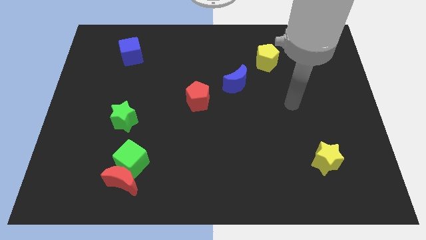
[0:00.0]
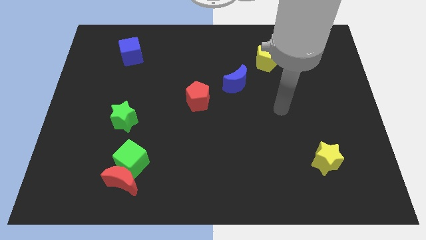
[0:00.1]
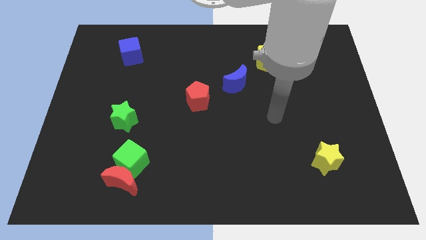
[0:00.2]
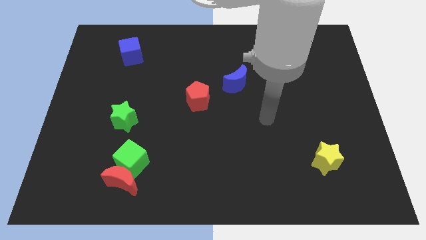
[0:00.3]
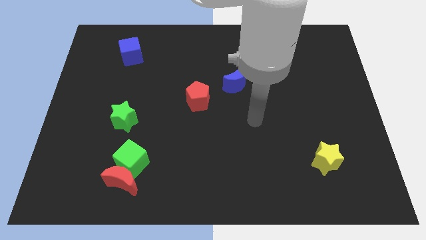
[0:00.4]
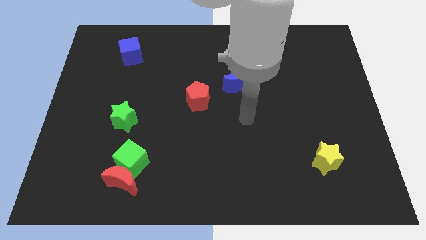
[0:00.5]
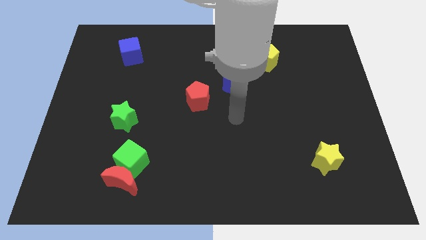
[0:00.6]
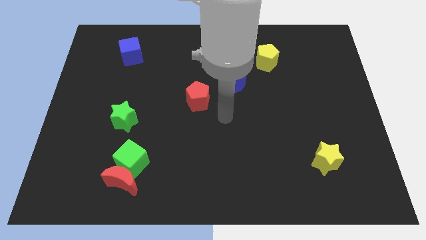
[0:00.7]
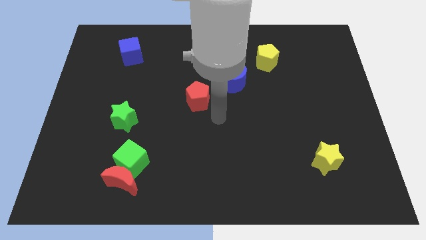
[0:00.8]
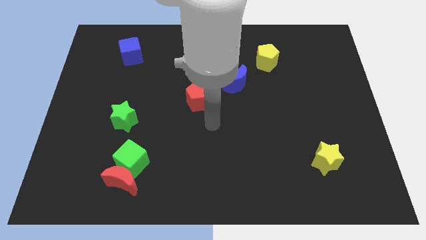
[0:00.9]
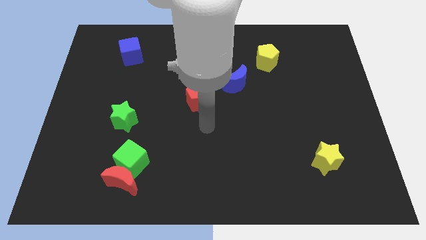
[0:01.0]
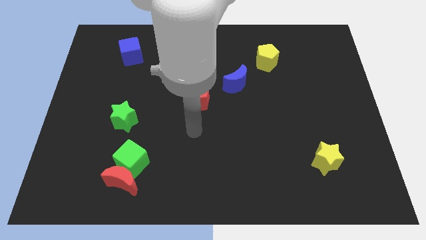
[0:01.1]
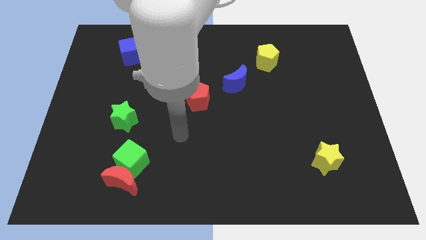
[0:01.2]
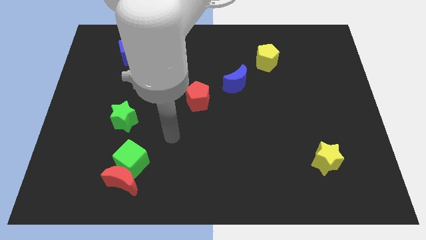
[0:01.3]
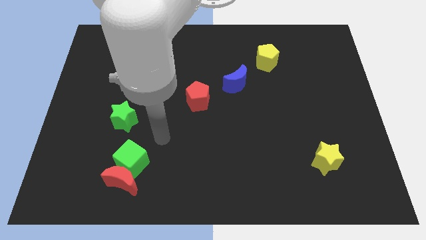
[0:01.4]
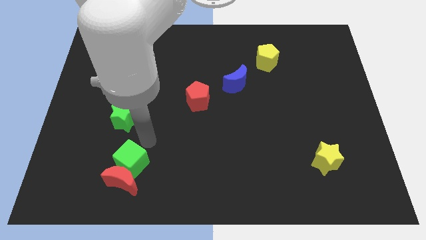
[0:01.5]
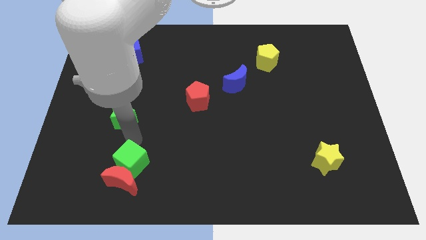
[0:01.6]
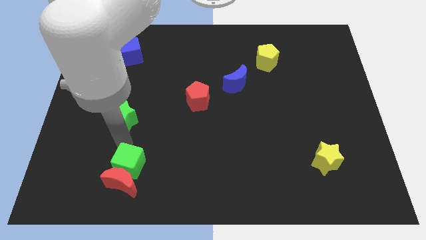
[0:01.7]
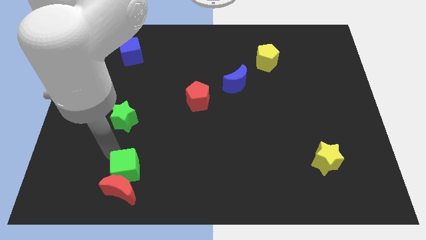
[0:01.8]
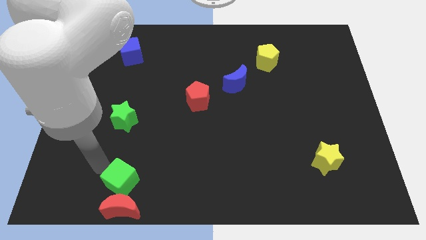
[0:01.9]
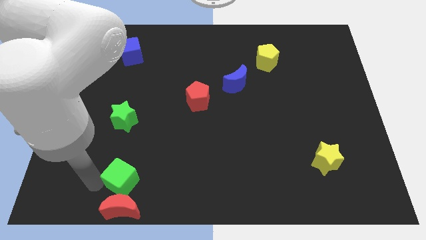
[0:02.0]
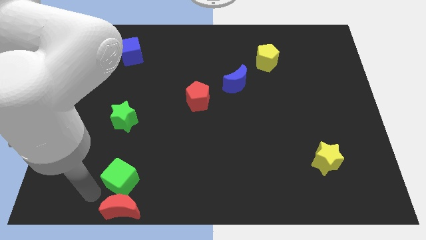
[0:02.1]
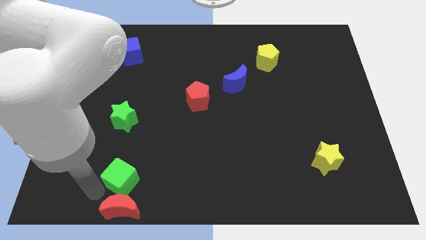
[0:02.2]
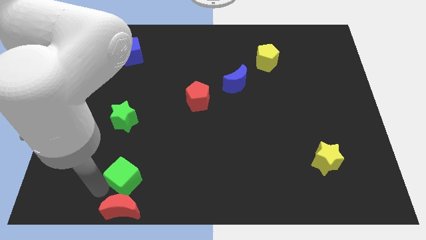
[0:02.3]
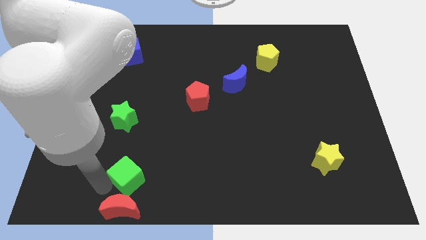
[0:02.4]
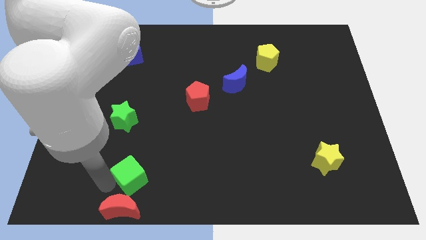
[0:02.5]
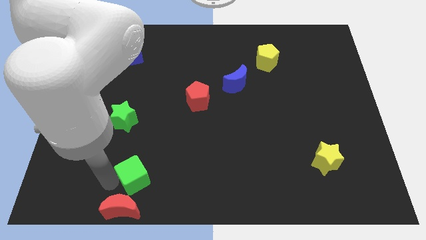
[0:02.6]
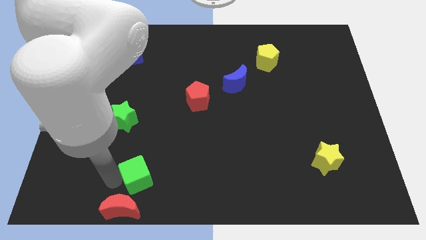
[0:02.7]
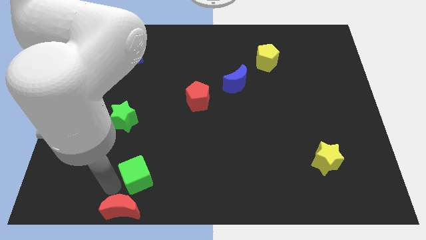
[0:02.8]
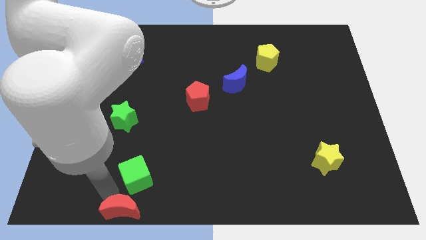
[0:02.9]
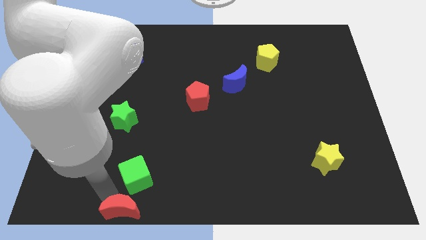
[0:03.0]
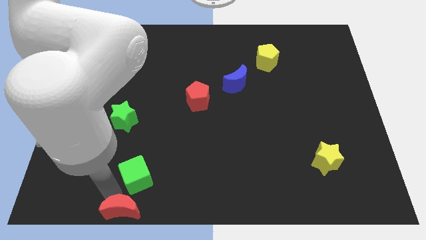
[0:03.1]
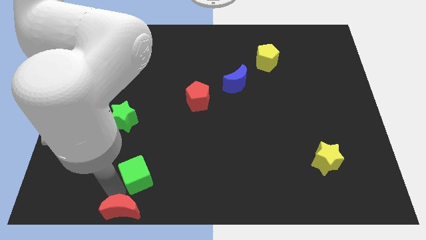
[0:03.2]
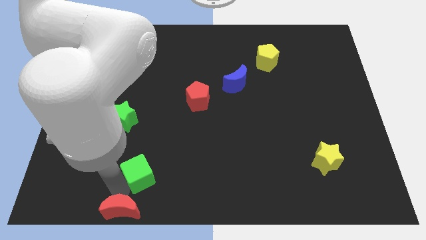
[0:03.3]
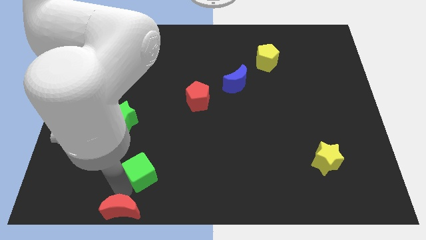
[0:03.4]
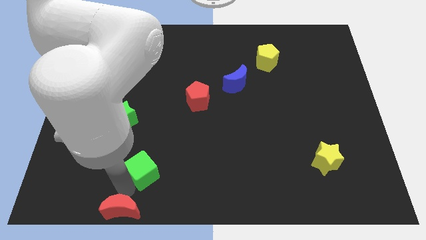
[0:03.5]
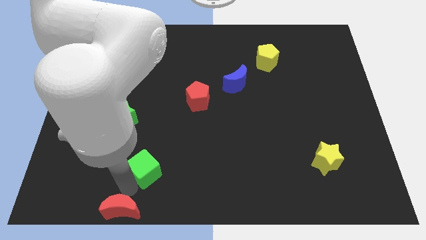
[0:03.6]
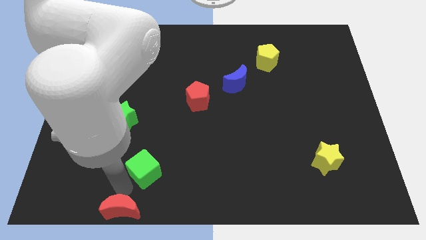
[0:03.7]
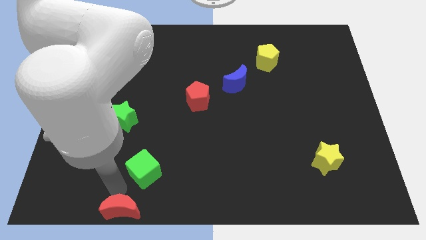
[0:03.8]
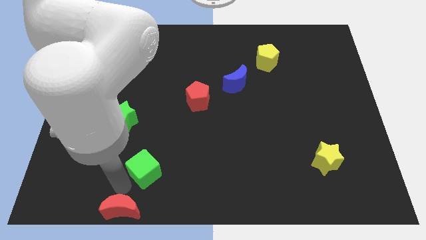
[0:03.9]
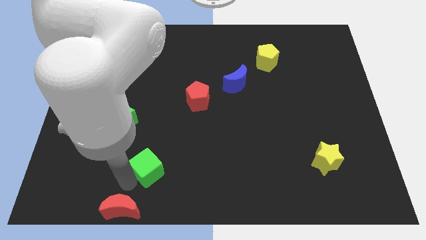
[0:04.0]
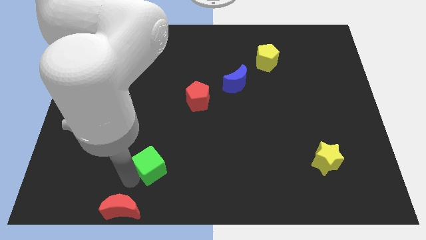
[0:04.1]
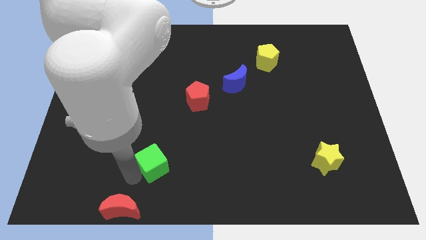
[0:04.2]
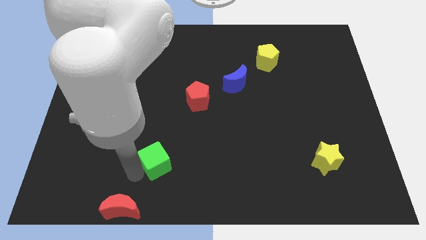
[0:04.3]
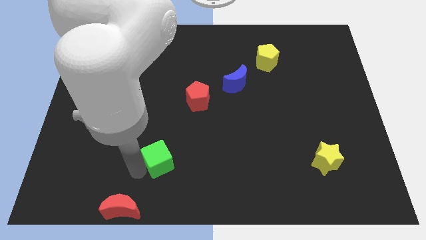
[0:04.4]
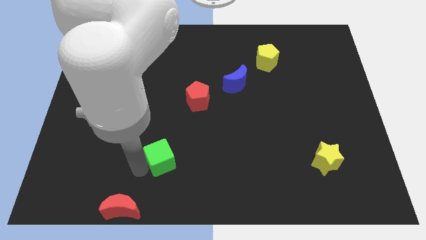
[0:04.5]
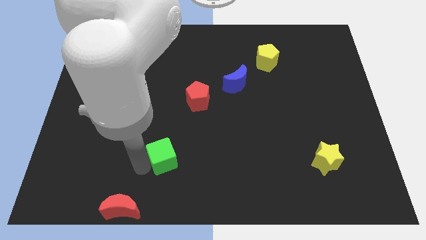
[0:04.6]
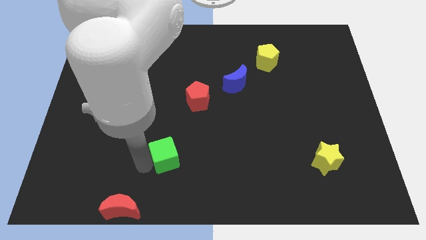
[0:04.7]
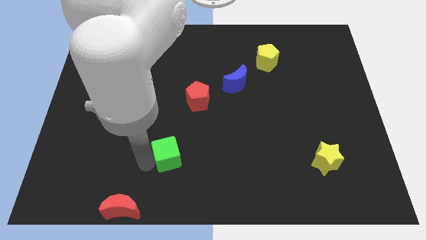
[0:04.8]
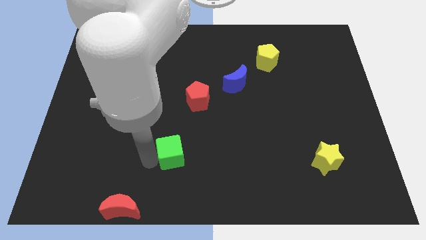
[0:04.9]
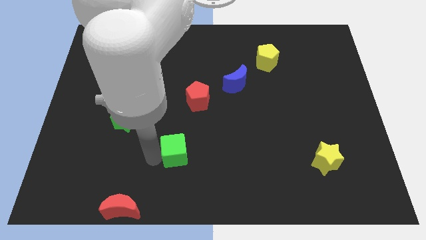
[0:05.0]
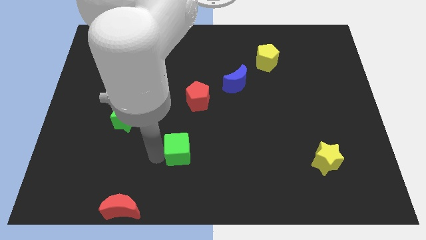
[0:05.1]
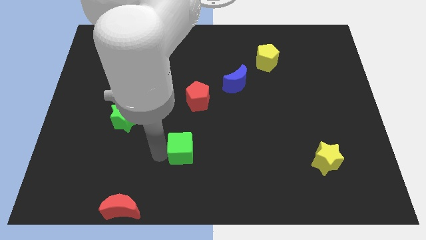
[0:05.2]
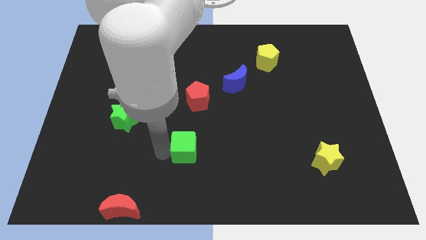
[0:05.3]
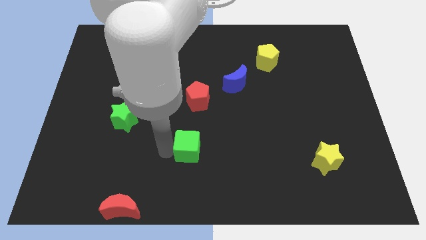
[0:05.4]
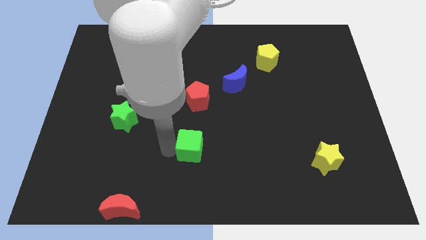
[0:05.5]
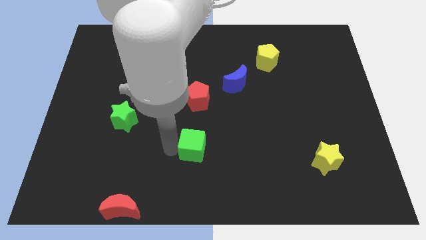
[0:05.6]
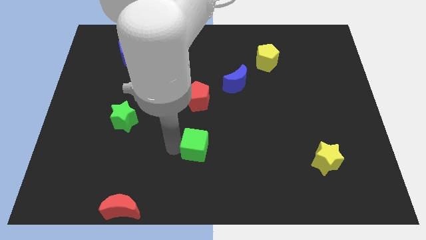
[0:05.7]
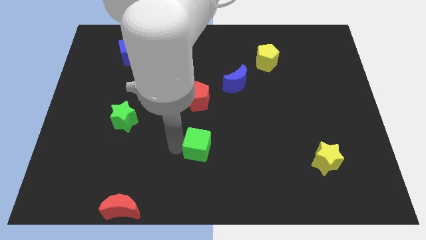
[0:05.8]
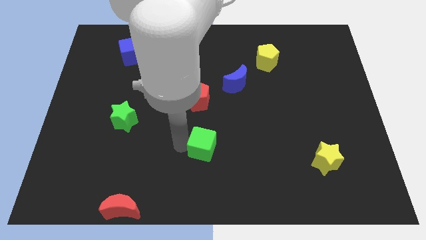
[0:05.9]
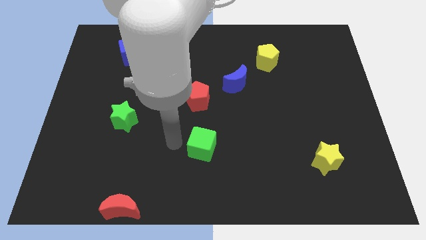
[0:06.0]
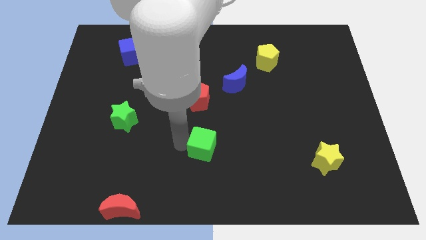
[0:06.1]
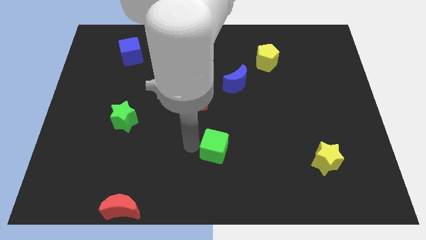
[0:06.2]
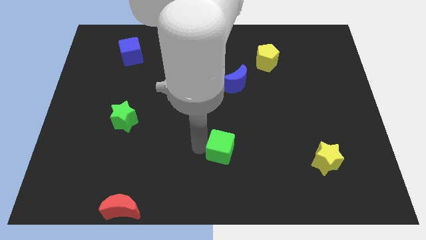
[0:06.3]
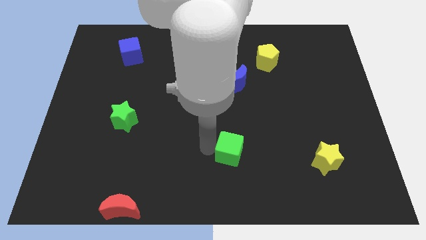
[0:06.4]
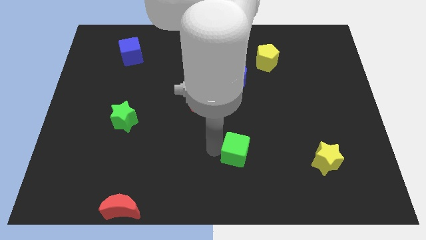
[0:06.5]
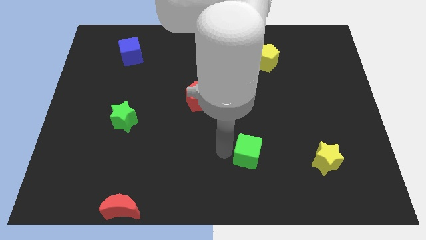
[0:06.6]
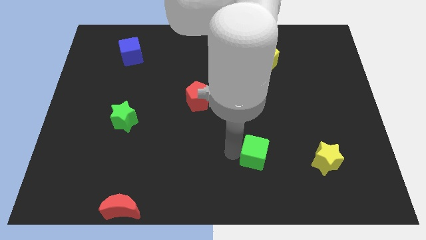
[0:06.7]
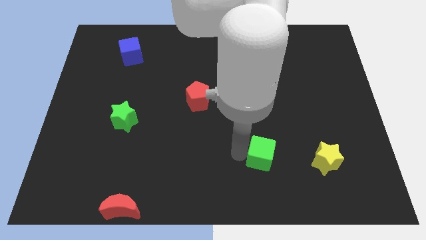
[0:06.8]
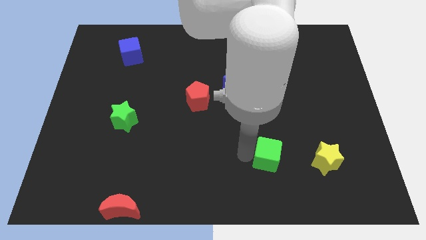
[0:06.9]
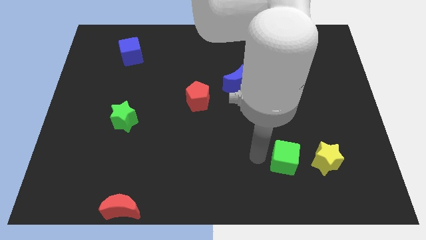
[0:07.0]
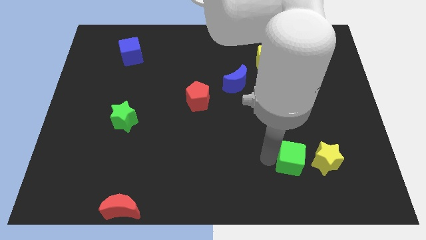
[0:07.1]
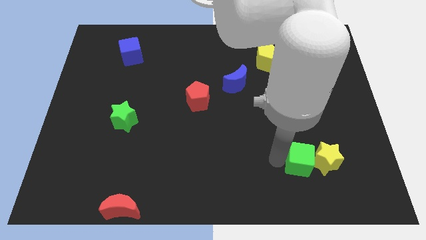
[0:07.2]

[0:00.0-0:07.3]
move the green cube close to the yellow star

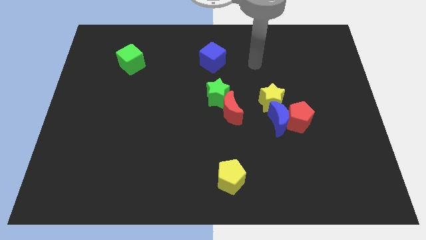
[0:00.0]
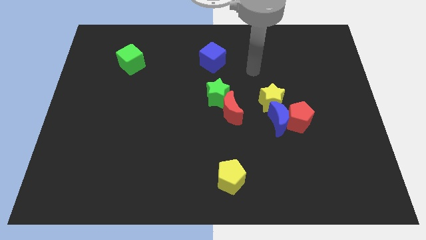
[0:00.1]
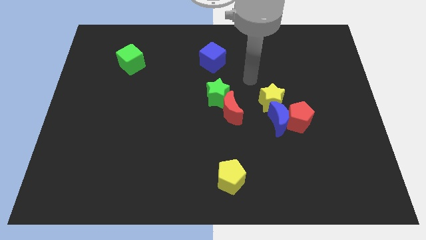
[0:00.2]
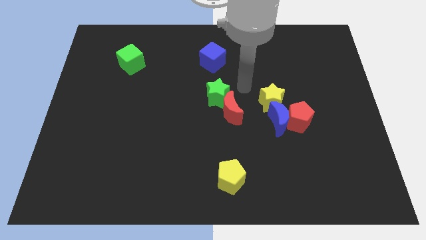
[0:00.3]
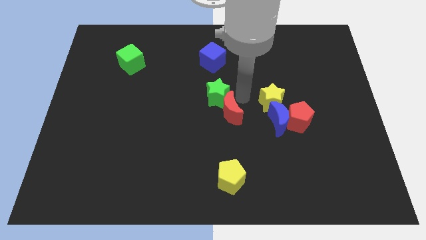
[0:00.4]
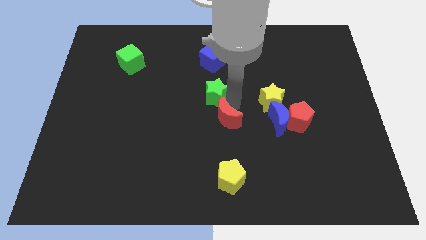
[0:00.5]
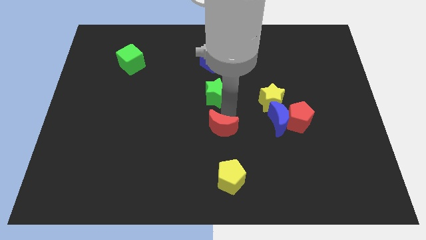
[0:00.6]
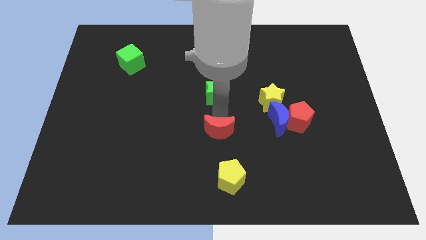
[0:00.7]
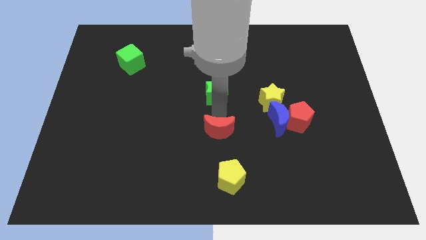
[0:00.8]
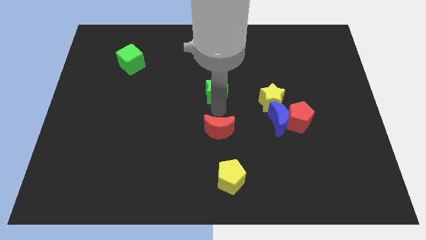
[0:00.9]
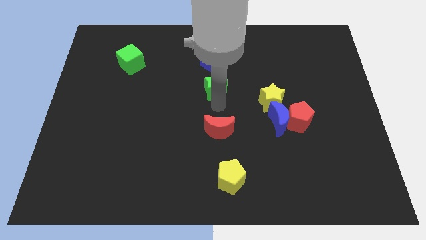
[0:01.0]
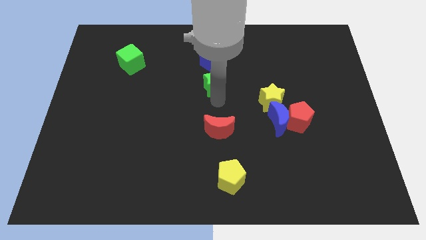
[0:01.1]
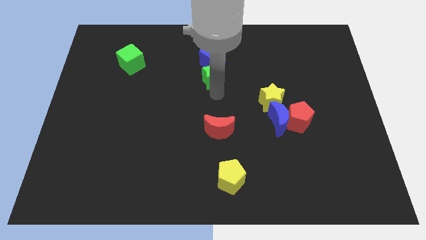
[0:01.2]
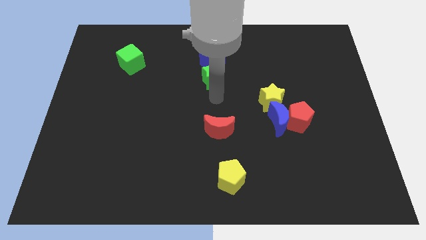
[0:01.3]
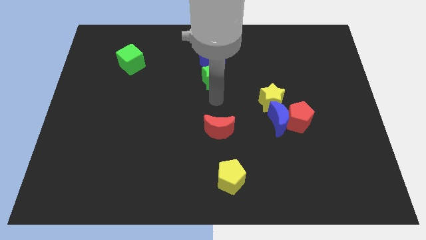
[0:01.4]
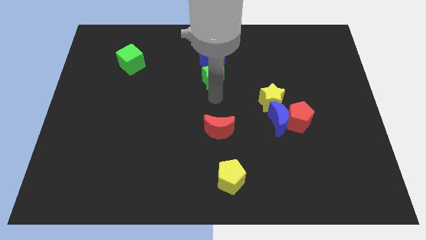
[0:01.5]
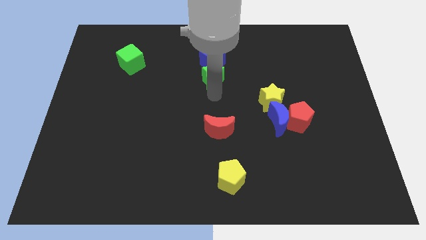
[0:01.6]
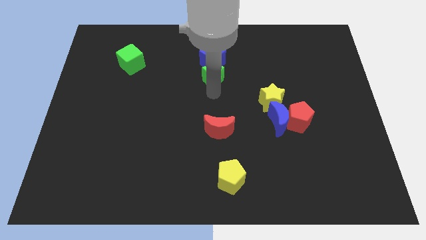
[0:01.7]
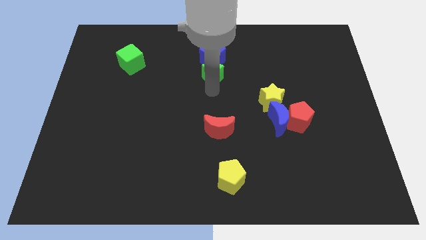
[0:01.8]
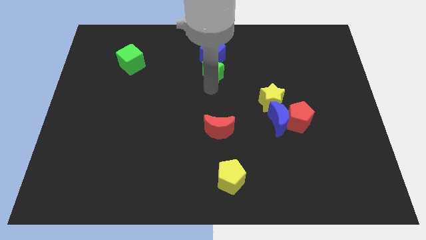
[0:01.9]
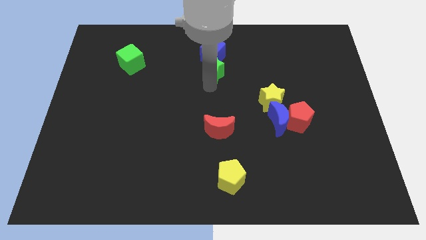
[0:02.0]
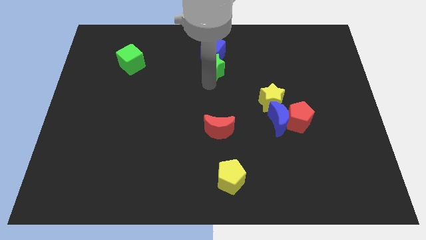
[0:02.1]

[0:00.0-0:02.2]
push the green star towards the blue cube
